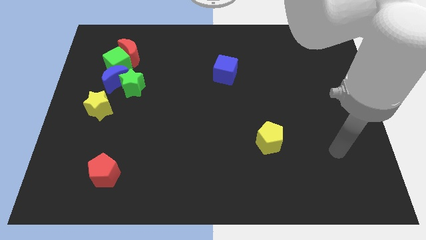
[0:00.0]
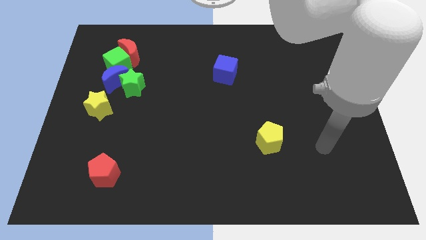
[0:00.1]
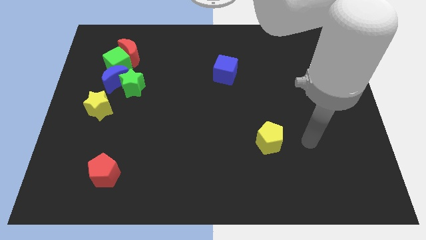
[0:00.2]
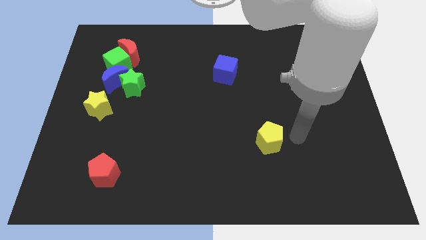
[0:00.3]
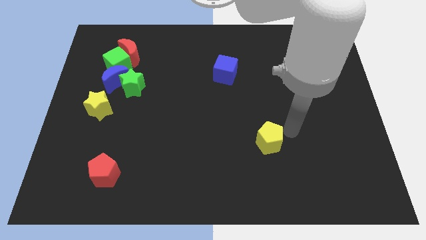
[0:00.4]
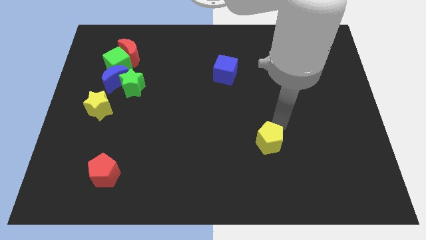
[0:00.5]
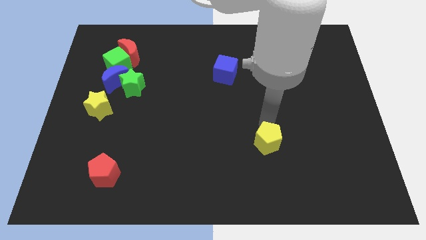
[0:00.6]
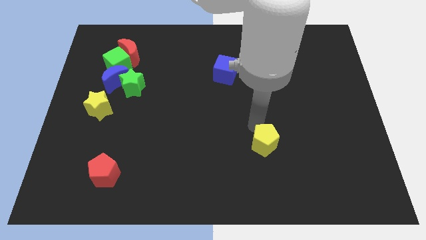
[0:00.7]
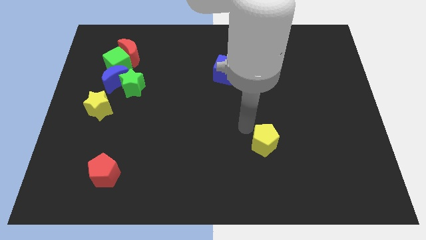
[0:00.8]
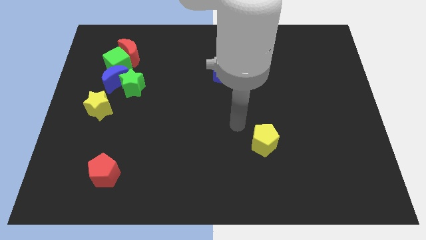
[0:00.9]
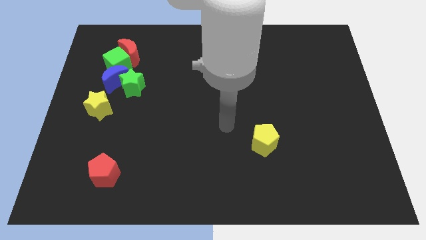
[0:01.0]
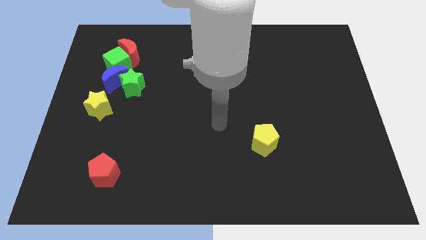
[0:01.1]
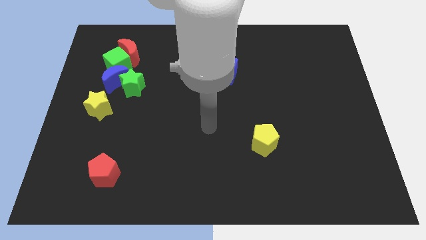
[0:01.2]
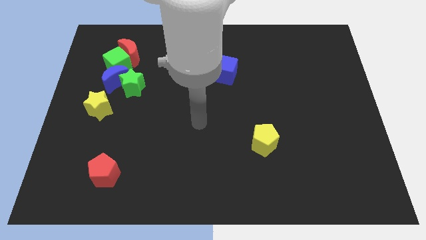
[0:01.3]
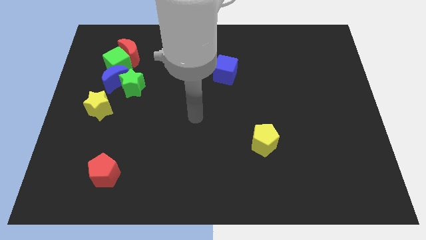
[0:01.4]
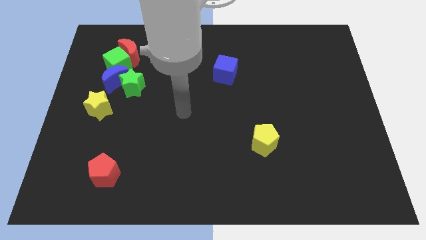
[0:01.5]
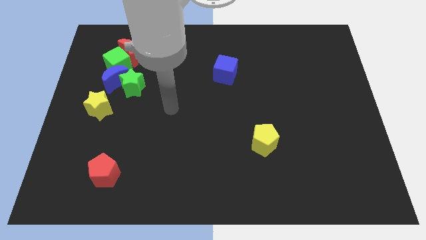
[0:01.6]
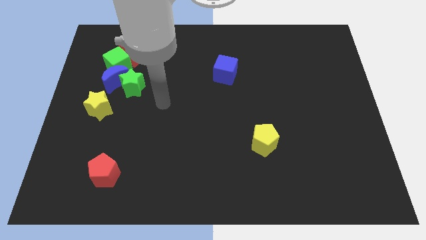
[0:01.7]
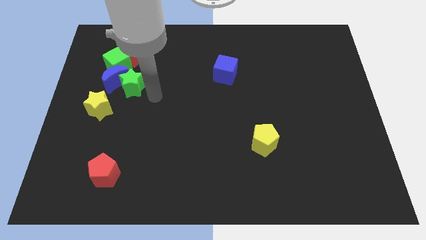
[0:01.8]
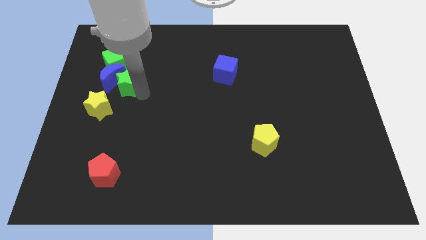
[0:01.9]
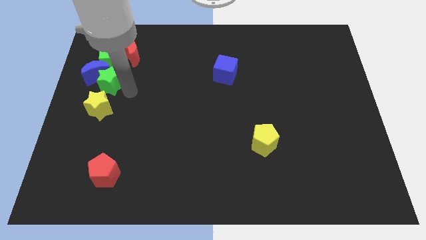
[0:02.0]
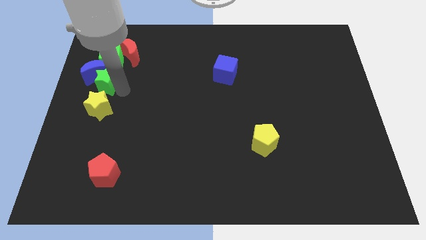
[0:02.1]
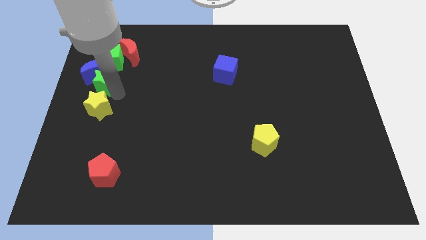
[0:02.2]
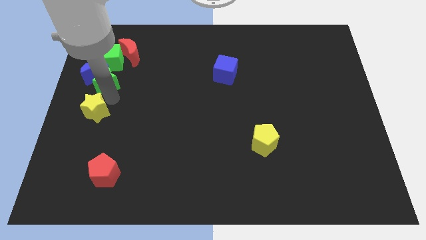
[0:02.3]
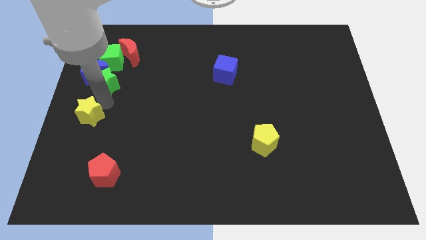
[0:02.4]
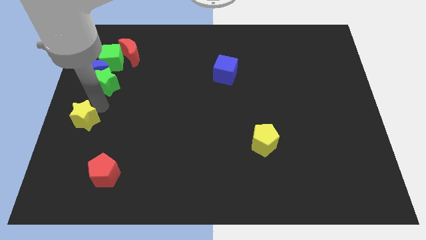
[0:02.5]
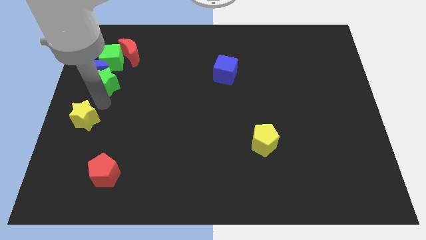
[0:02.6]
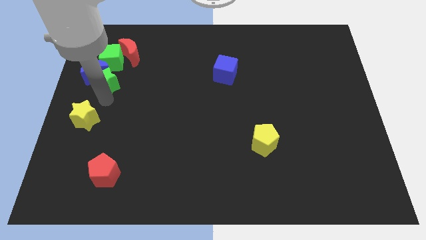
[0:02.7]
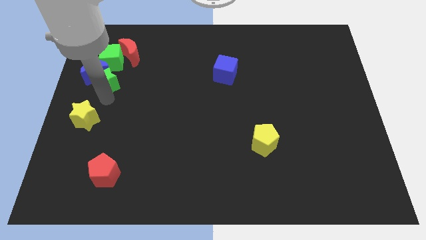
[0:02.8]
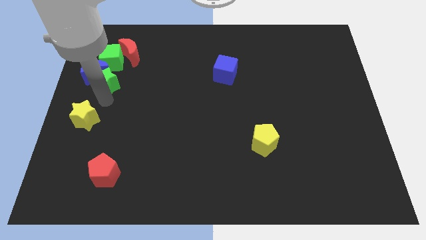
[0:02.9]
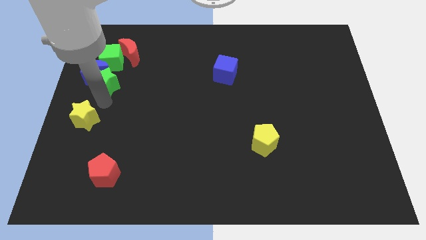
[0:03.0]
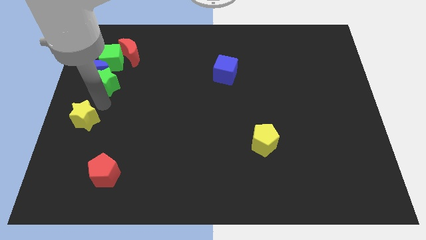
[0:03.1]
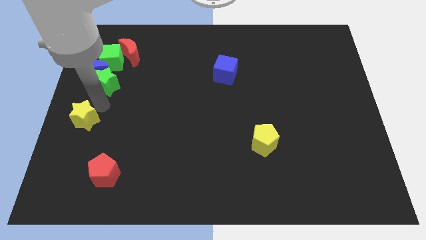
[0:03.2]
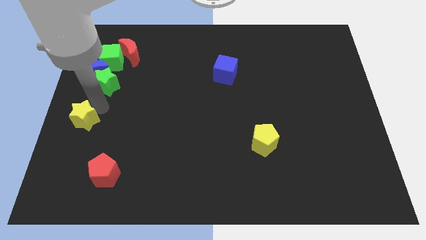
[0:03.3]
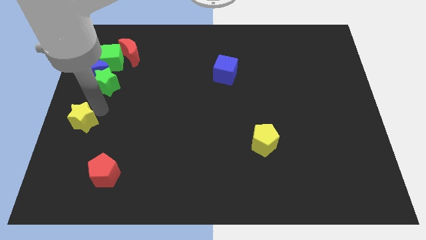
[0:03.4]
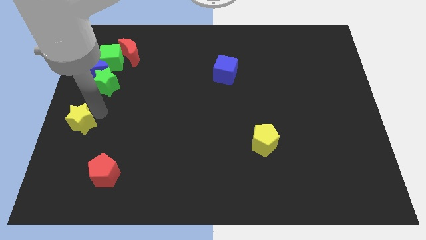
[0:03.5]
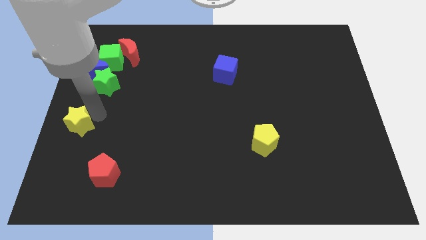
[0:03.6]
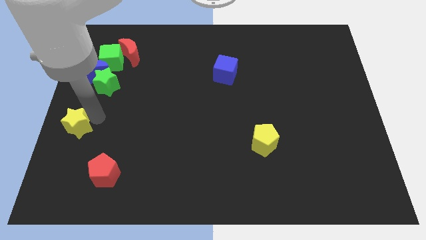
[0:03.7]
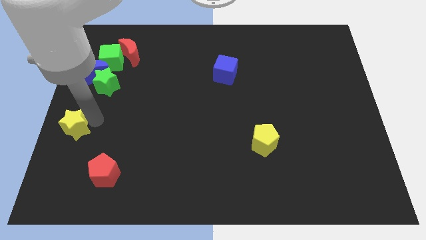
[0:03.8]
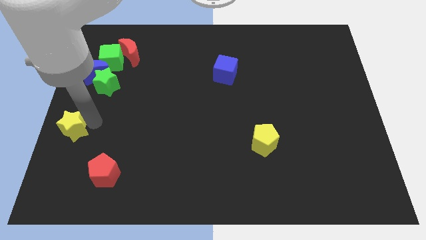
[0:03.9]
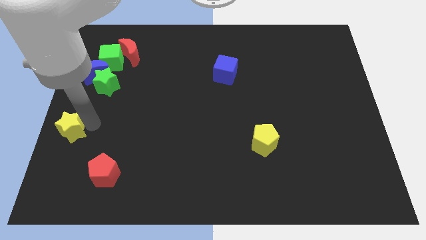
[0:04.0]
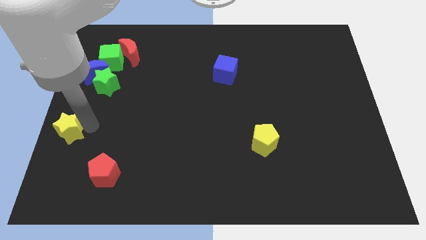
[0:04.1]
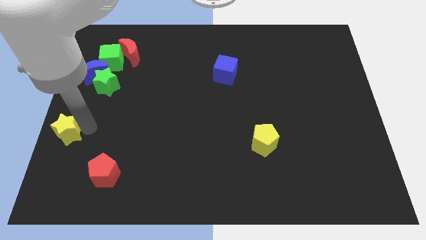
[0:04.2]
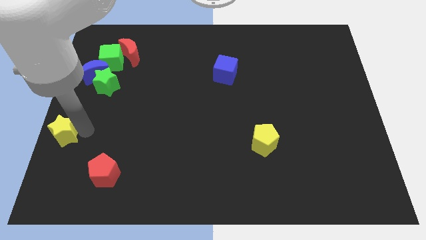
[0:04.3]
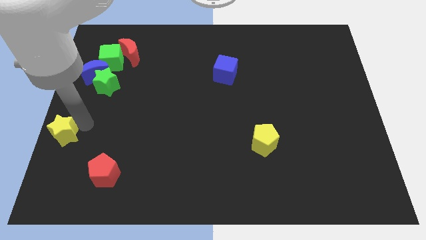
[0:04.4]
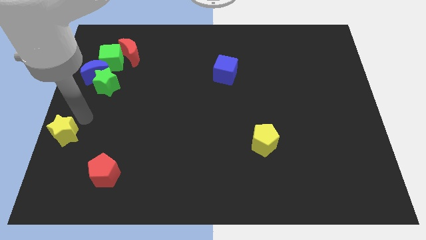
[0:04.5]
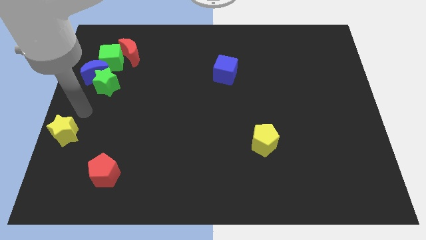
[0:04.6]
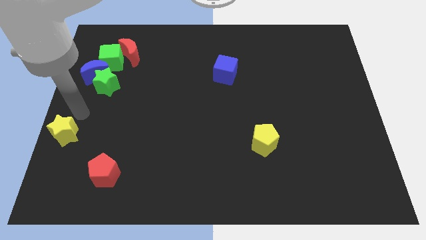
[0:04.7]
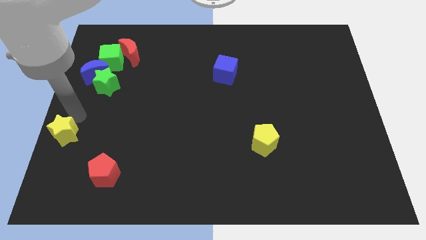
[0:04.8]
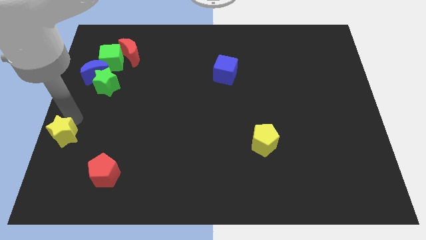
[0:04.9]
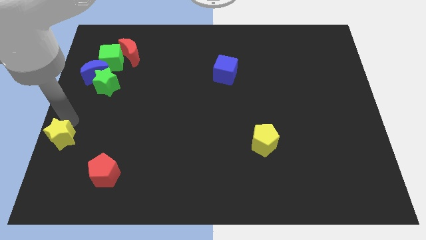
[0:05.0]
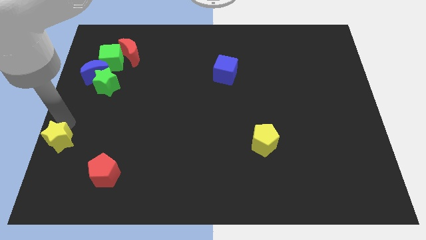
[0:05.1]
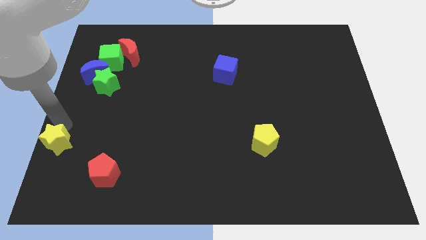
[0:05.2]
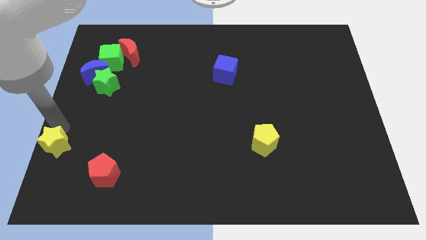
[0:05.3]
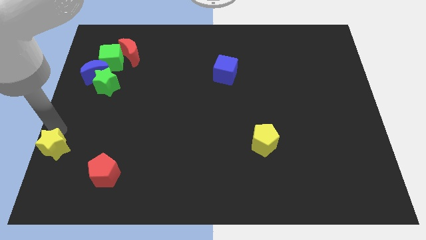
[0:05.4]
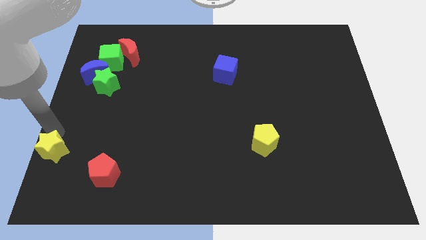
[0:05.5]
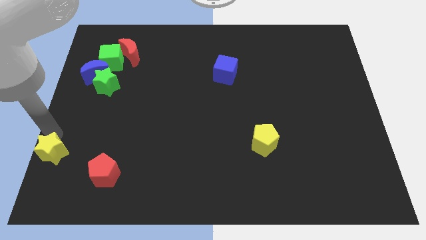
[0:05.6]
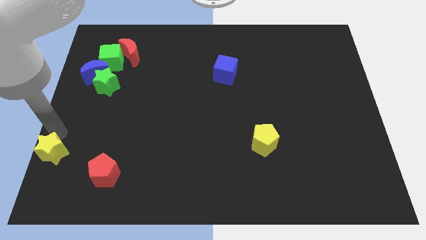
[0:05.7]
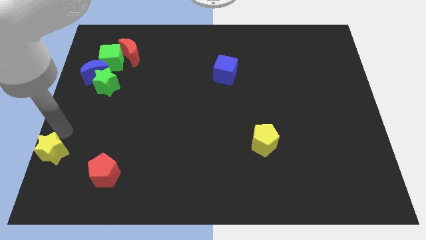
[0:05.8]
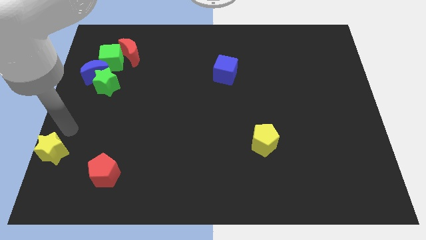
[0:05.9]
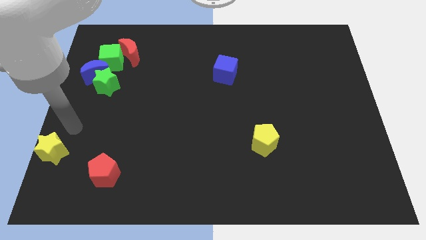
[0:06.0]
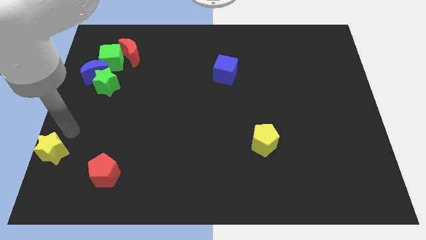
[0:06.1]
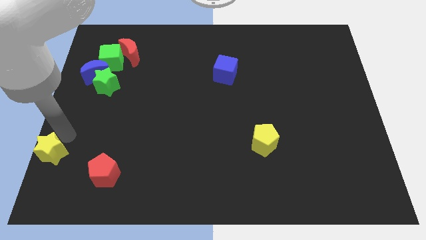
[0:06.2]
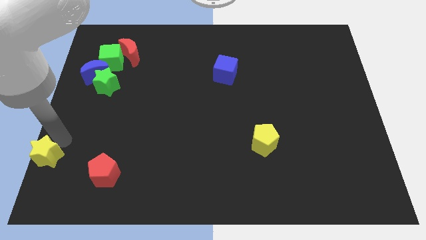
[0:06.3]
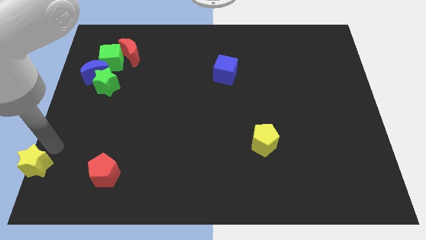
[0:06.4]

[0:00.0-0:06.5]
push the yellow star to the bottom left of the board
